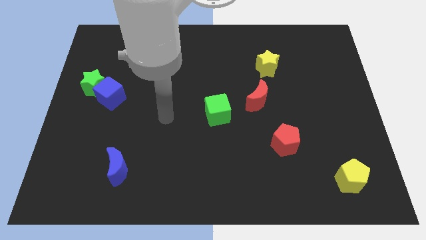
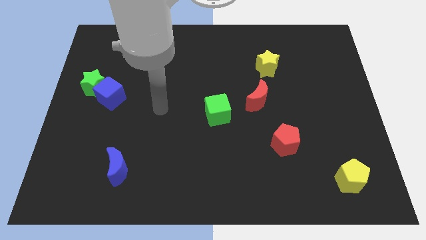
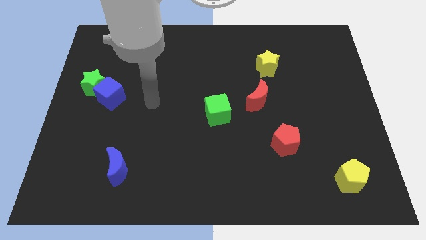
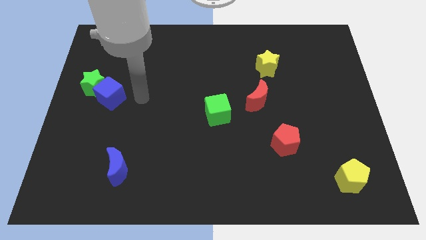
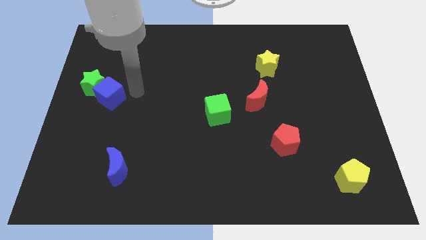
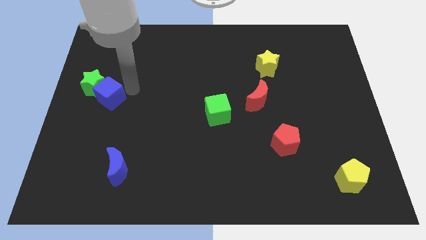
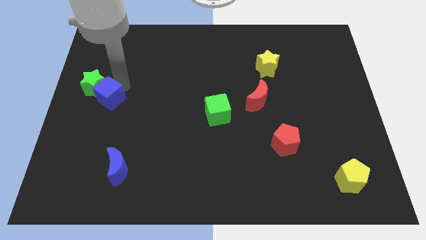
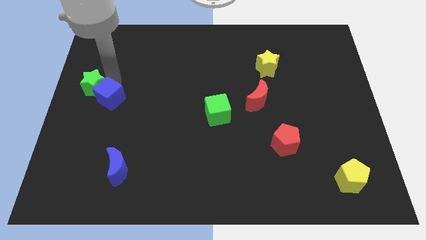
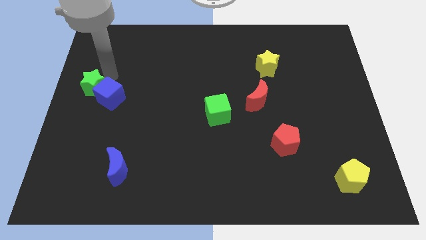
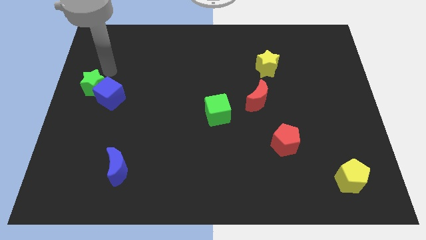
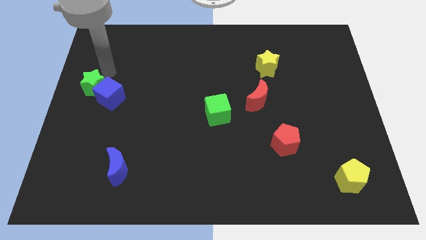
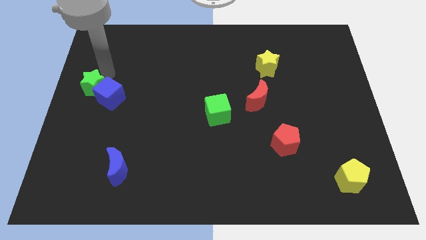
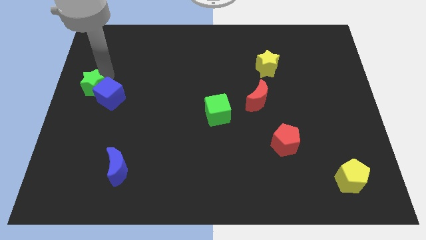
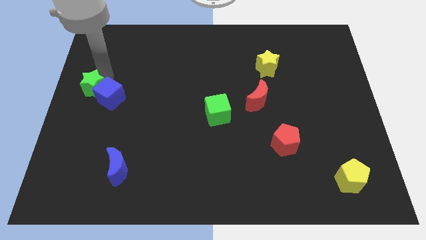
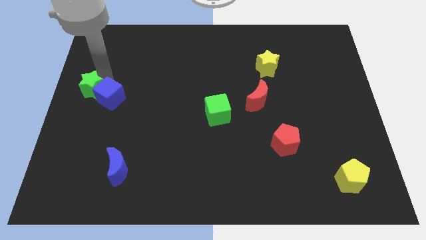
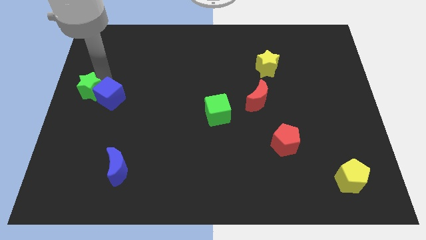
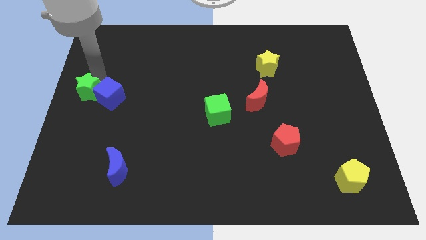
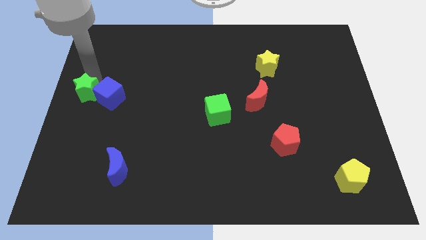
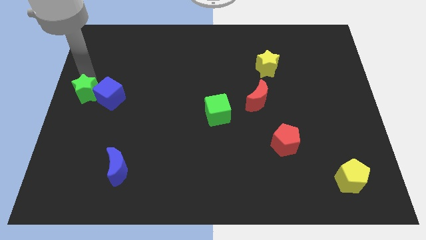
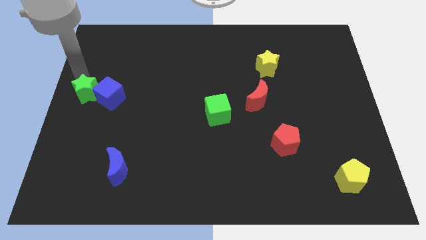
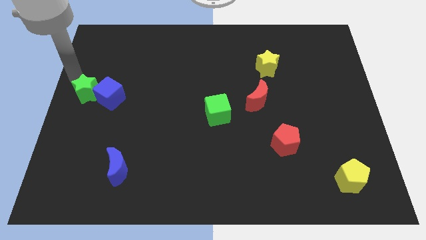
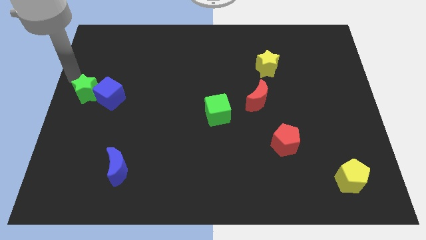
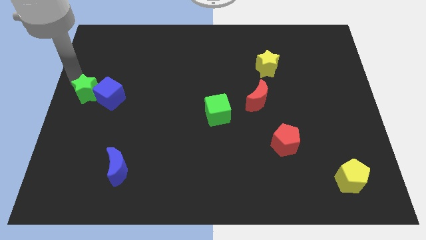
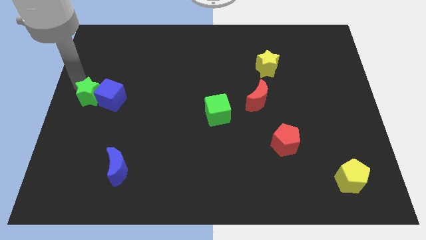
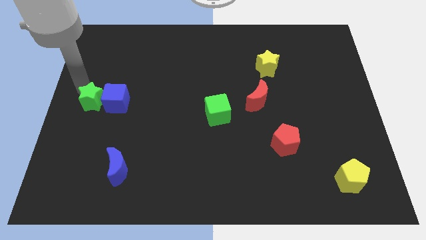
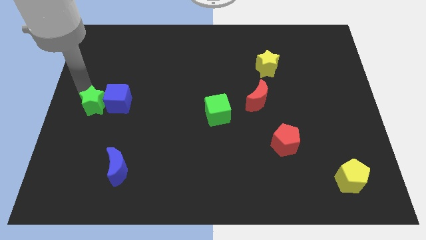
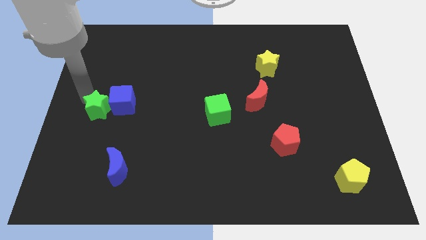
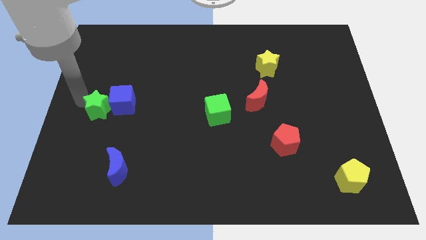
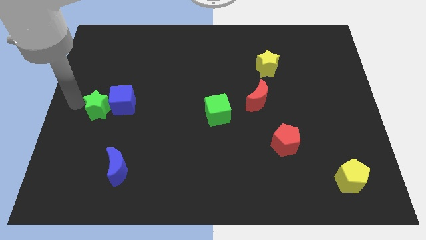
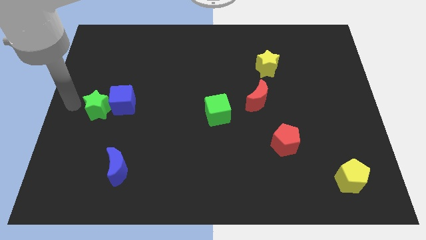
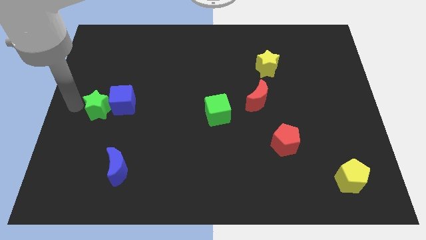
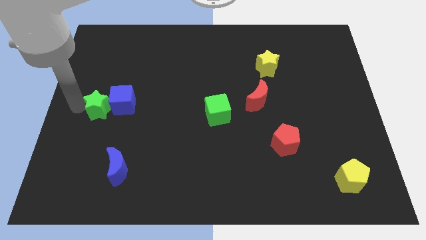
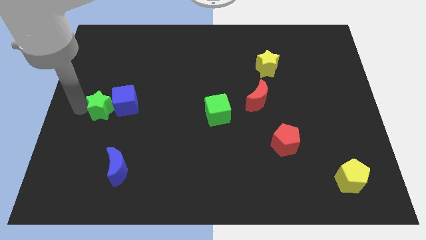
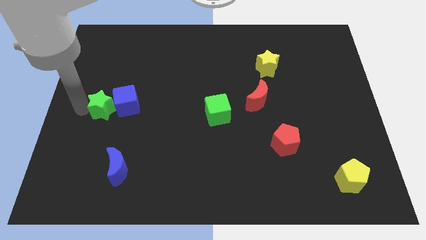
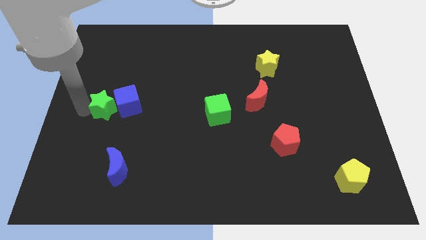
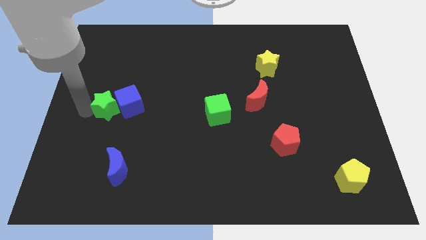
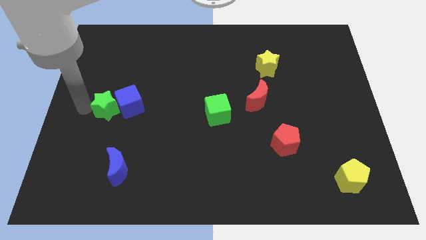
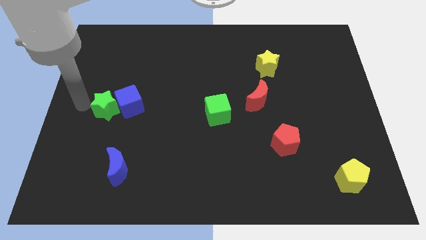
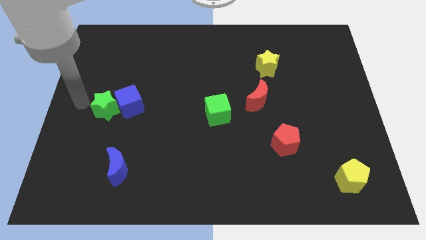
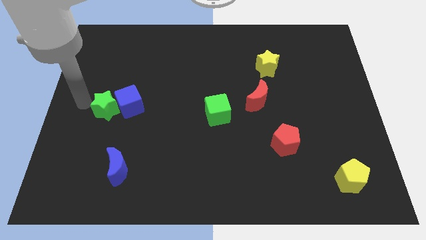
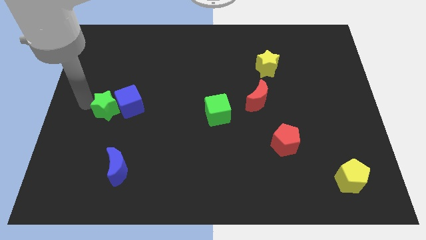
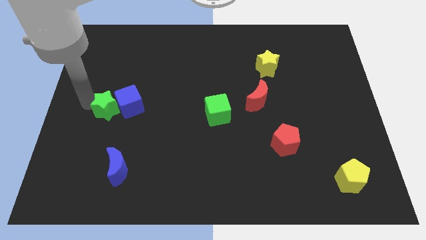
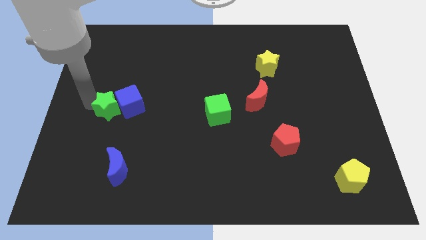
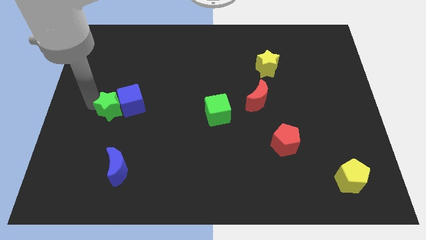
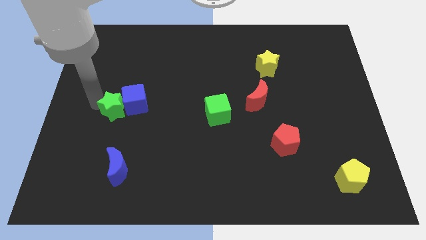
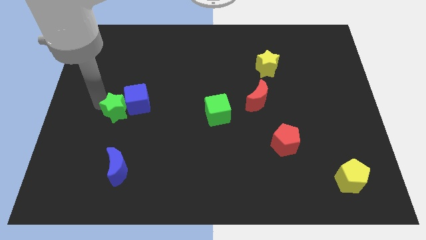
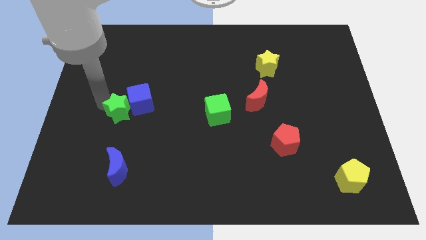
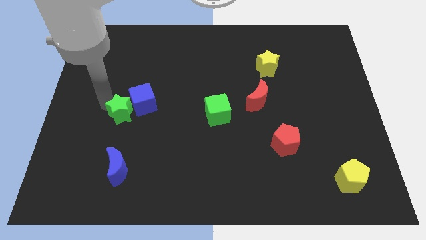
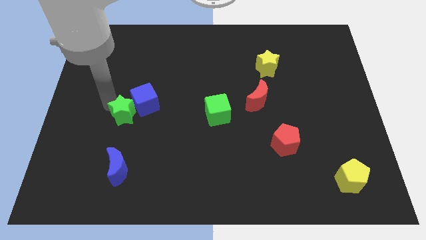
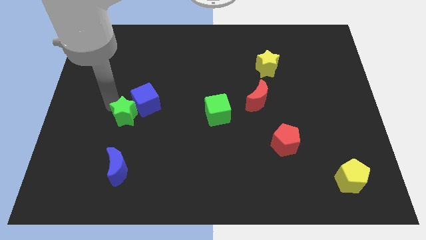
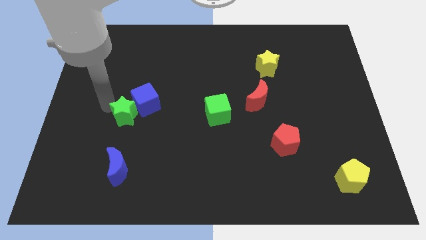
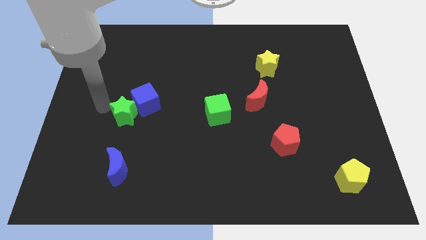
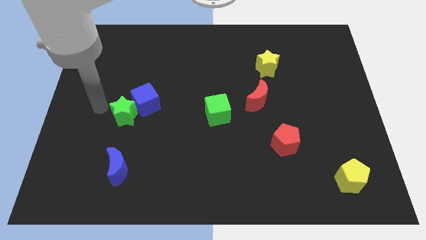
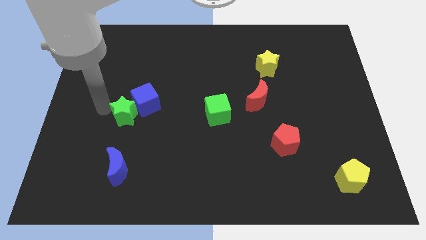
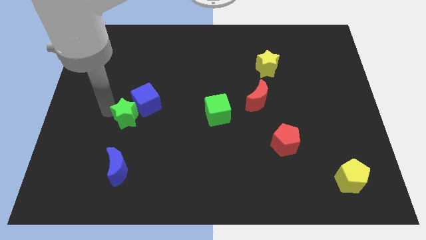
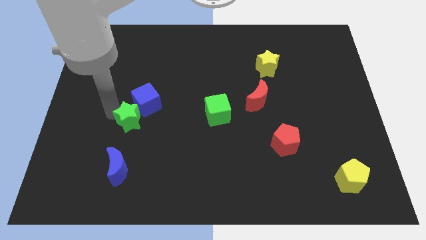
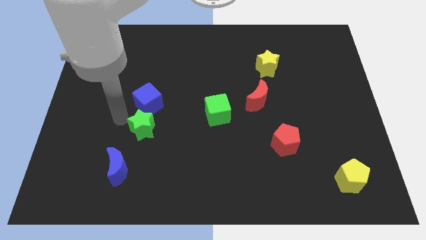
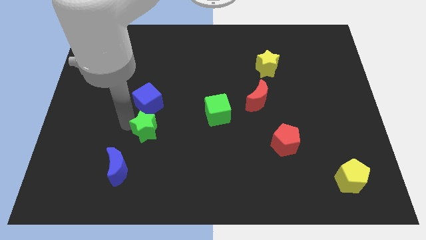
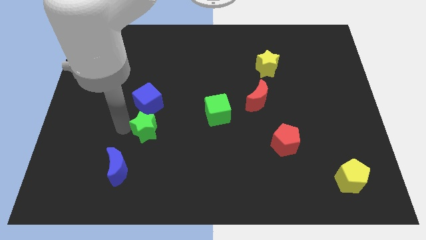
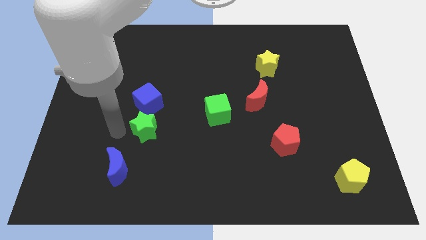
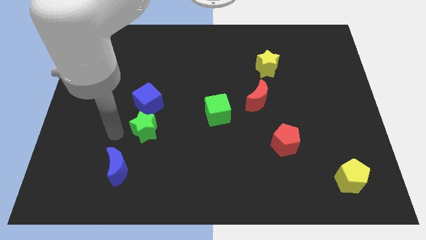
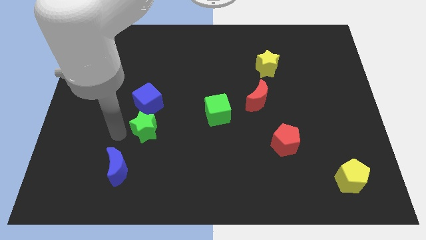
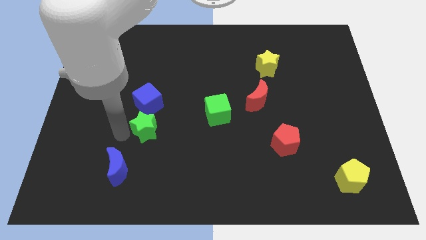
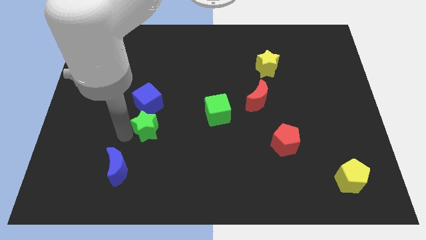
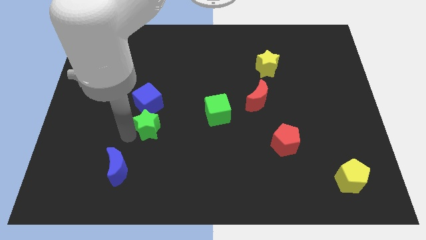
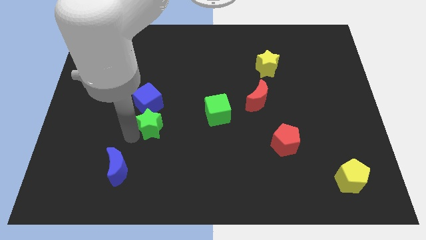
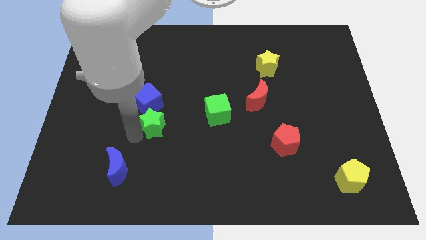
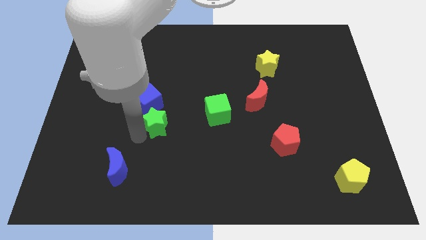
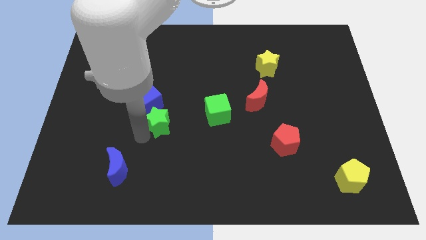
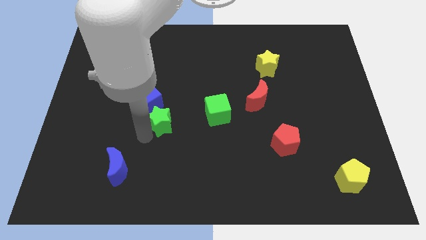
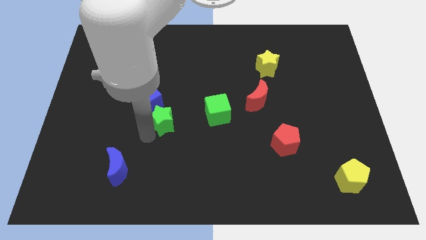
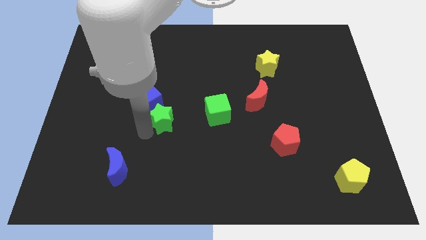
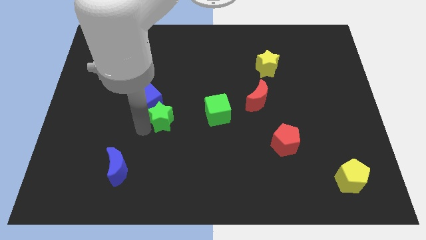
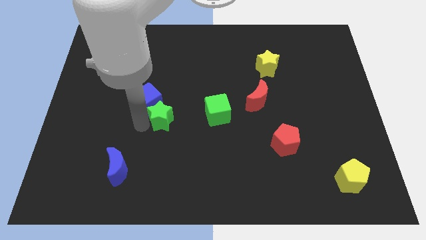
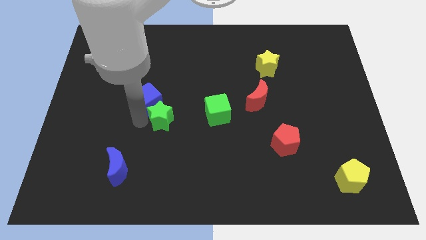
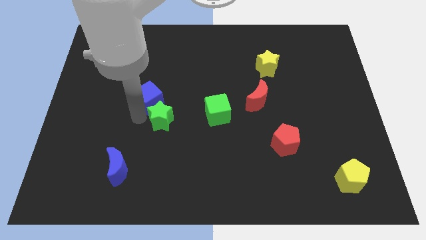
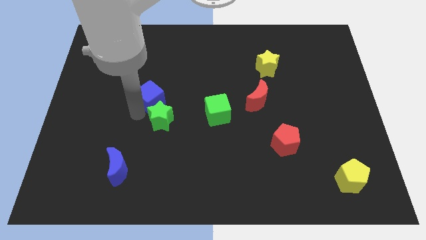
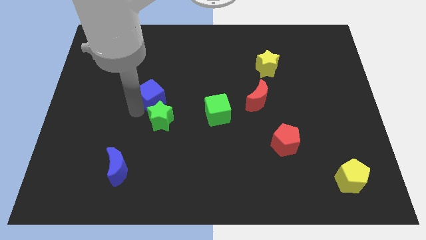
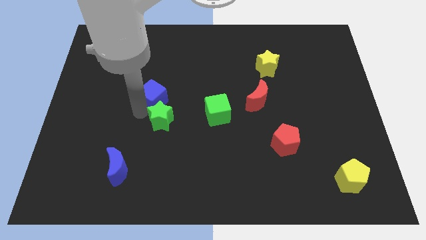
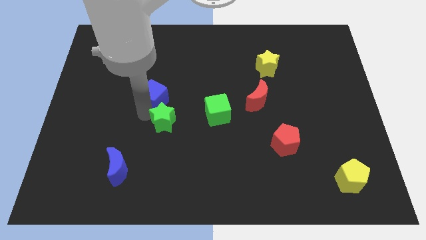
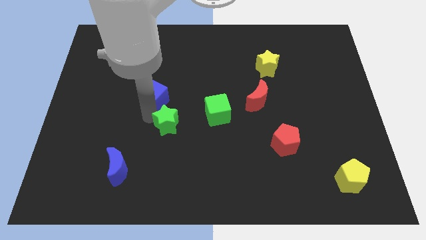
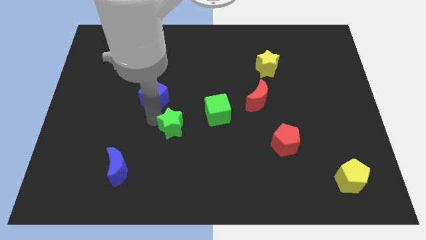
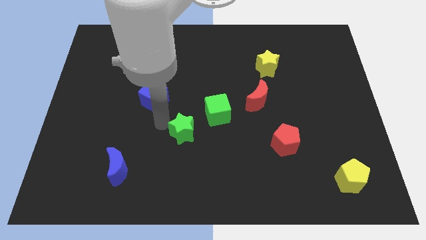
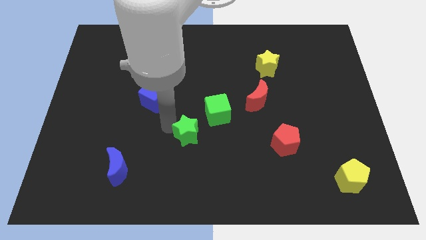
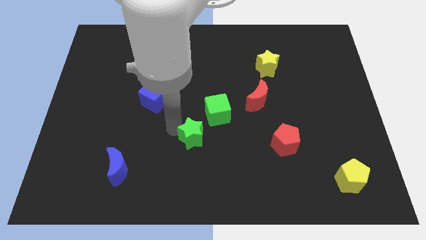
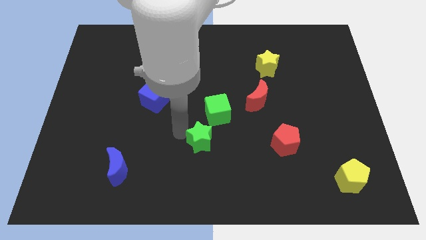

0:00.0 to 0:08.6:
push the green star to the bottom of the green cube
